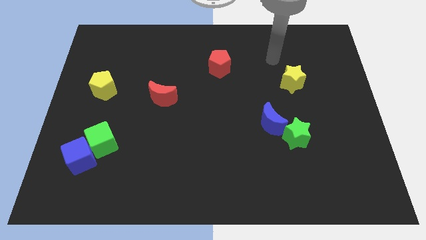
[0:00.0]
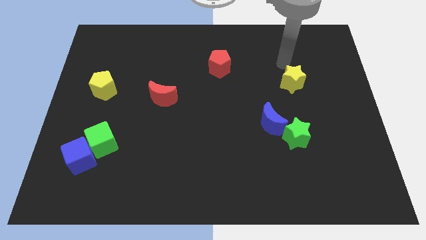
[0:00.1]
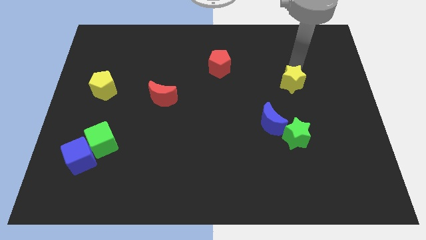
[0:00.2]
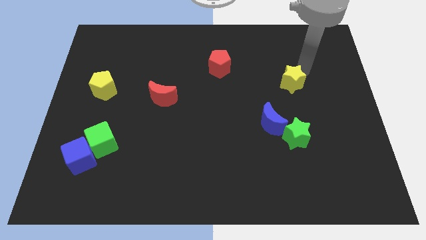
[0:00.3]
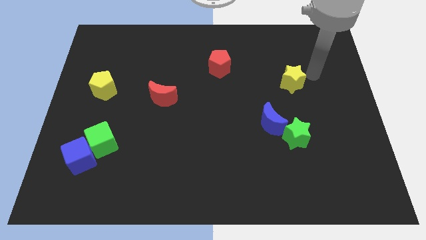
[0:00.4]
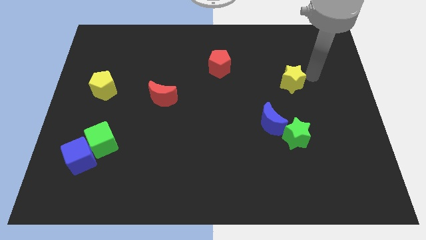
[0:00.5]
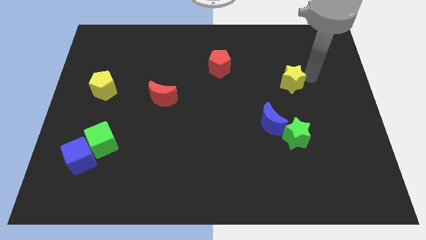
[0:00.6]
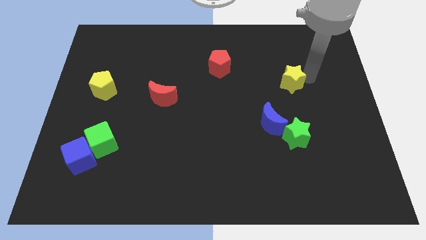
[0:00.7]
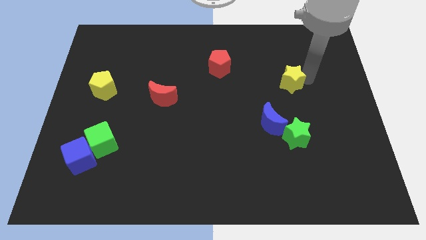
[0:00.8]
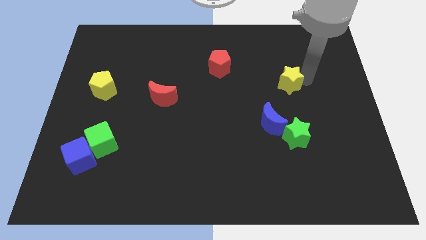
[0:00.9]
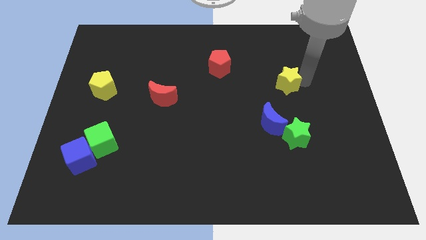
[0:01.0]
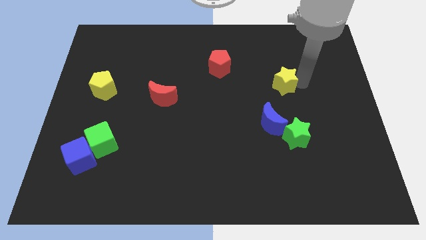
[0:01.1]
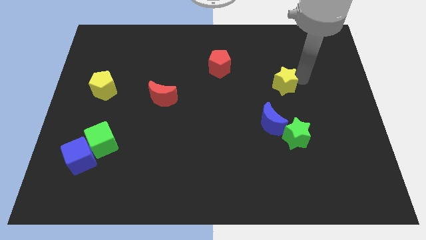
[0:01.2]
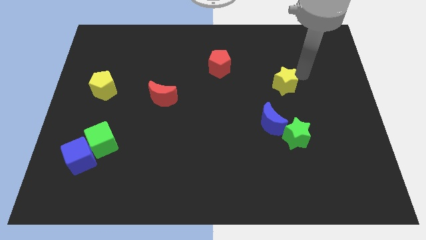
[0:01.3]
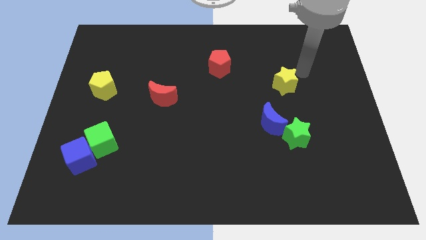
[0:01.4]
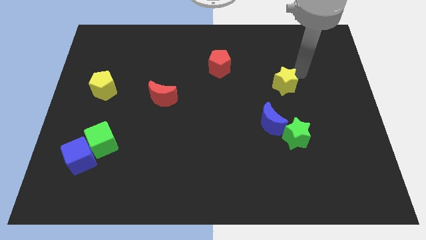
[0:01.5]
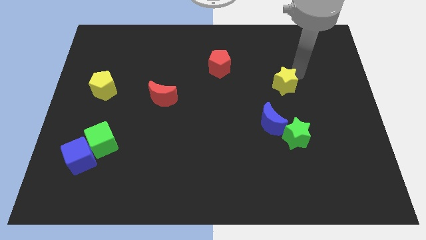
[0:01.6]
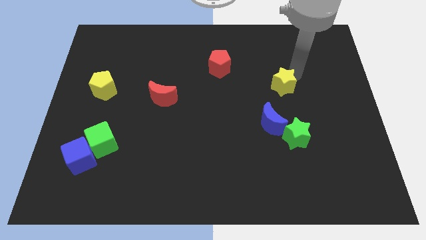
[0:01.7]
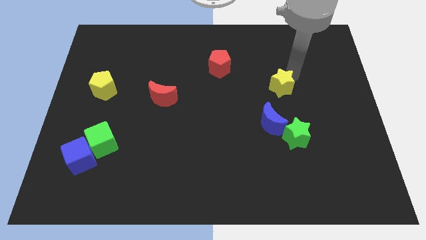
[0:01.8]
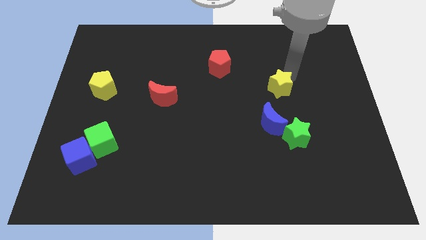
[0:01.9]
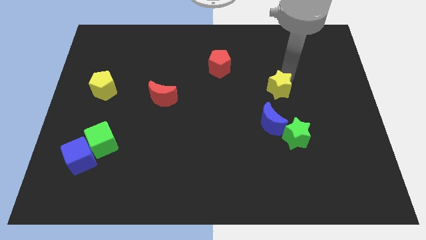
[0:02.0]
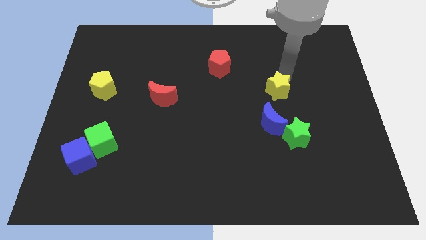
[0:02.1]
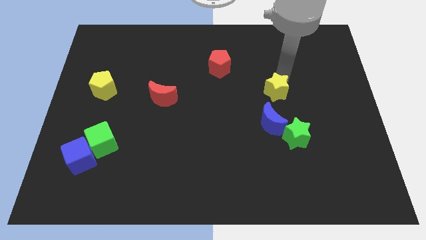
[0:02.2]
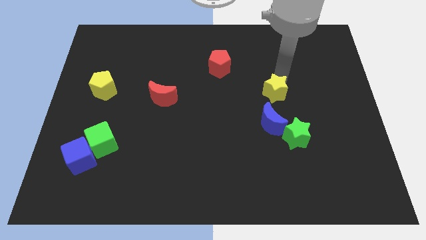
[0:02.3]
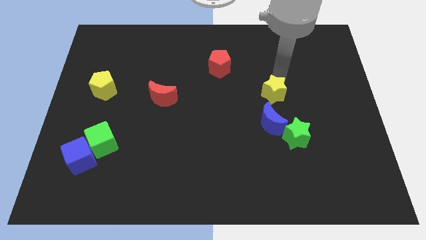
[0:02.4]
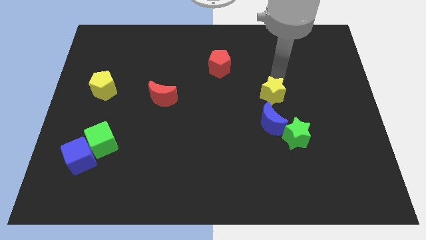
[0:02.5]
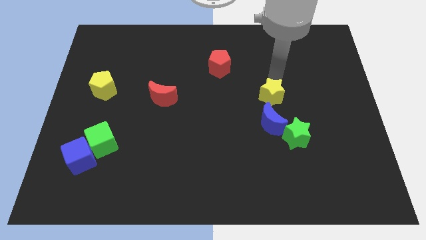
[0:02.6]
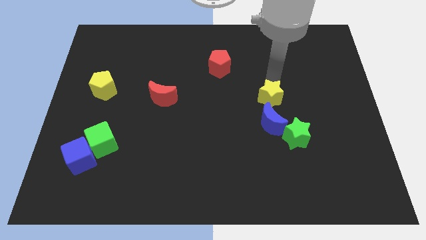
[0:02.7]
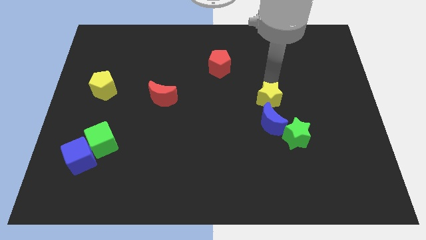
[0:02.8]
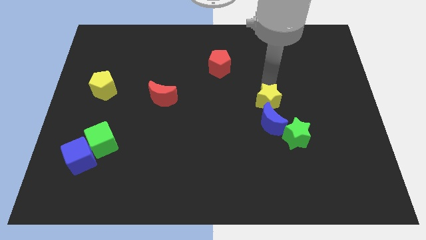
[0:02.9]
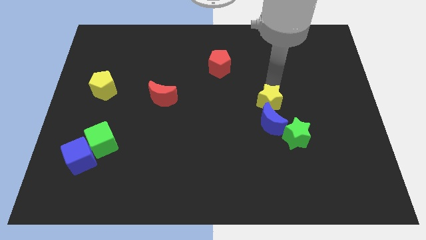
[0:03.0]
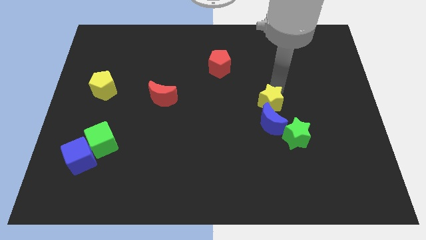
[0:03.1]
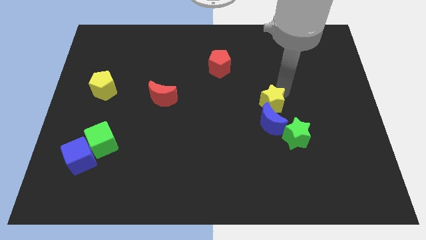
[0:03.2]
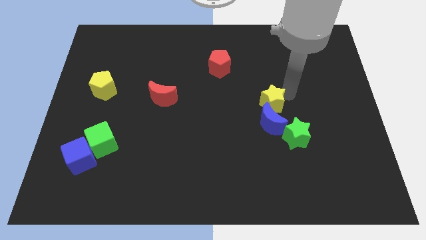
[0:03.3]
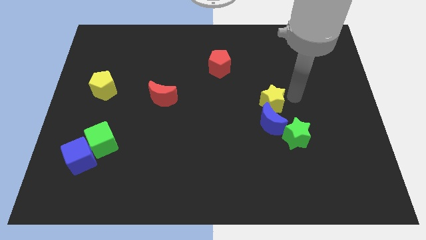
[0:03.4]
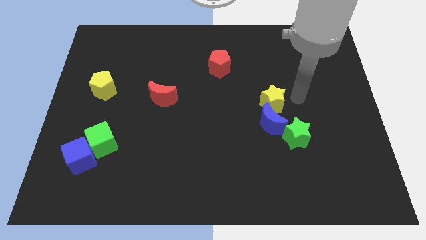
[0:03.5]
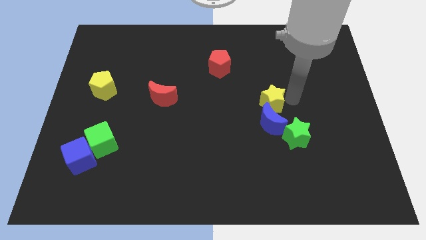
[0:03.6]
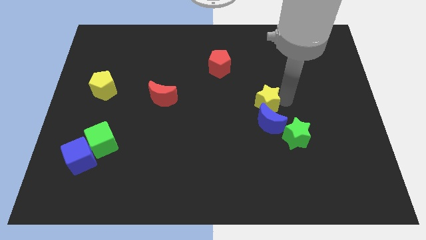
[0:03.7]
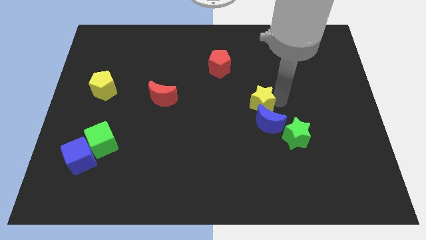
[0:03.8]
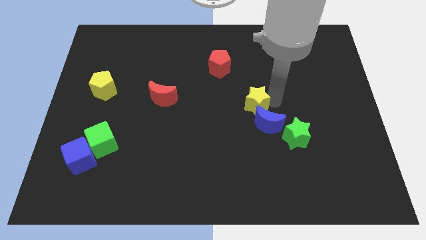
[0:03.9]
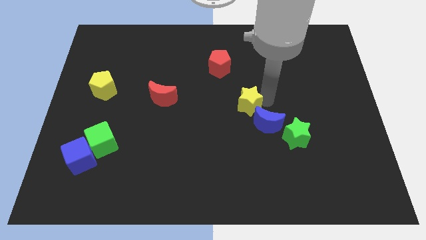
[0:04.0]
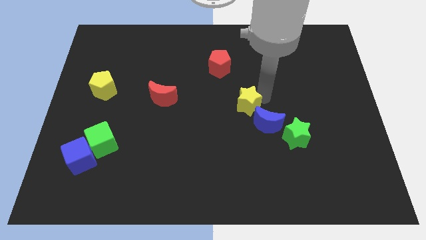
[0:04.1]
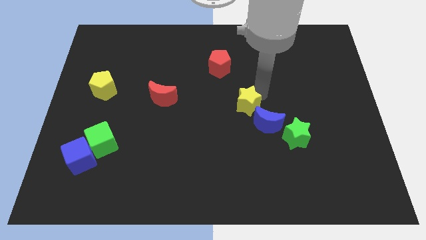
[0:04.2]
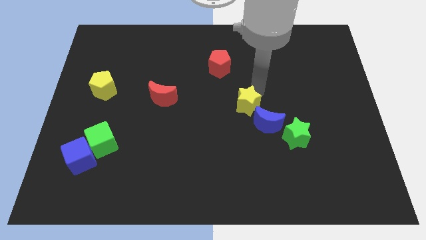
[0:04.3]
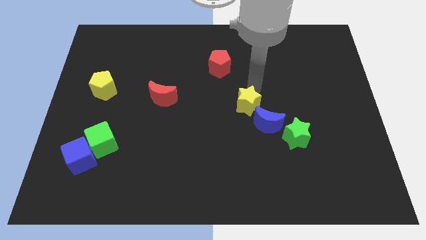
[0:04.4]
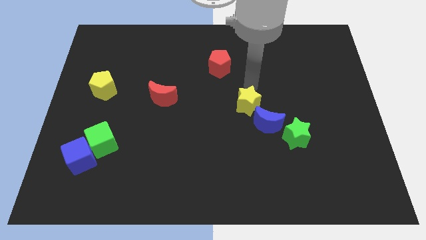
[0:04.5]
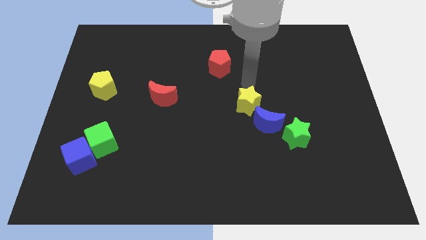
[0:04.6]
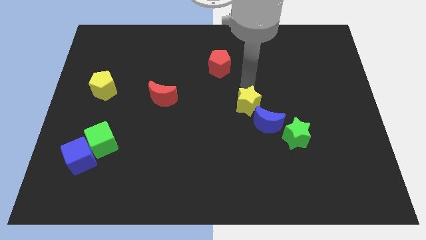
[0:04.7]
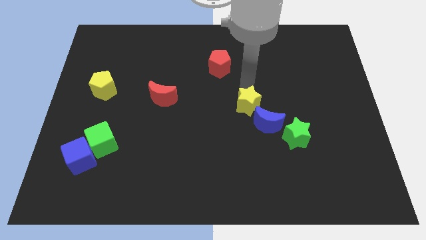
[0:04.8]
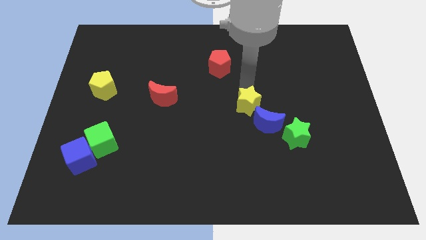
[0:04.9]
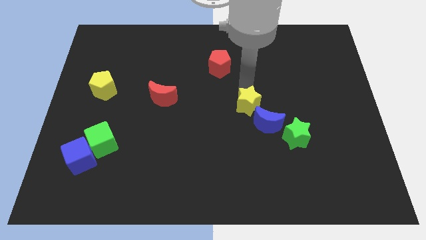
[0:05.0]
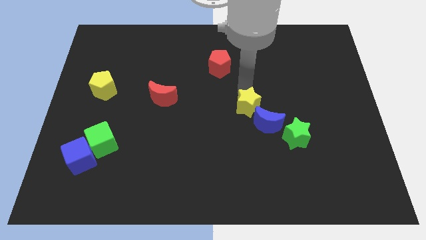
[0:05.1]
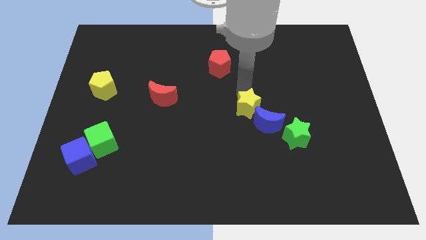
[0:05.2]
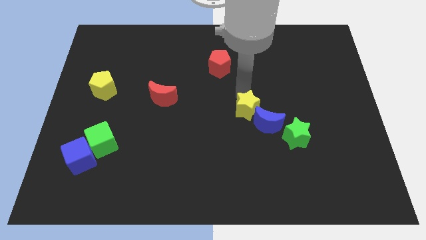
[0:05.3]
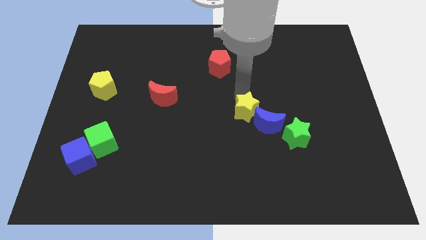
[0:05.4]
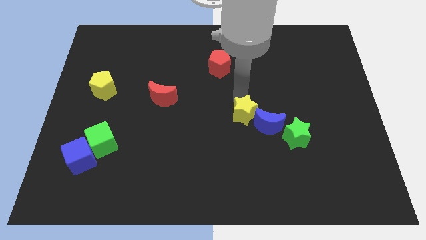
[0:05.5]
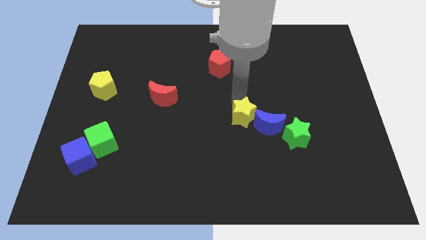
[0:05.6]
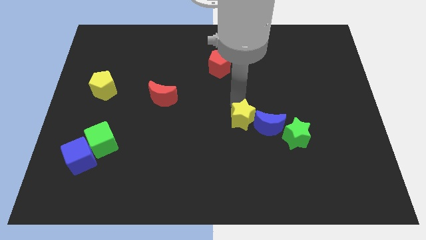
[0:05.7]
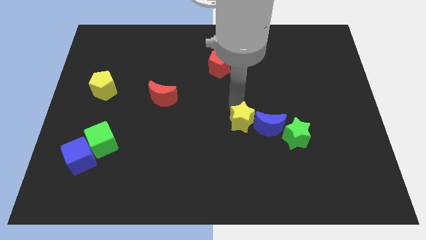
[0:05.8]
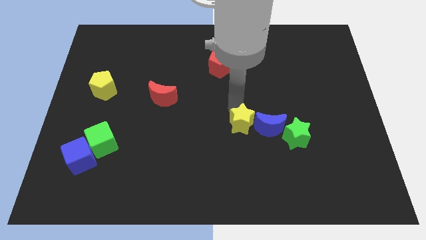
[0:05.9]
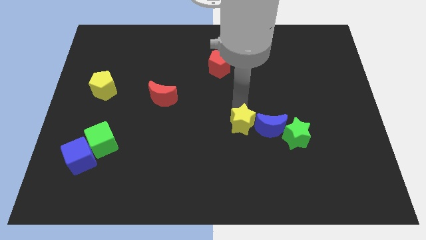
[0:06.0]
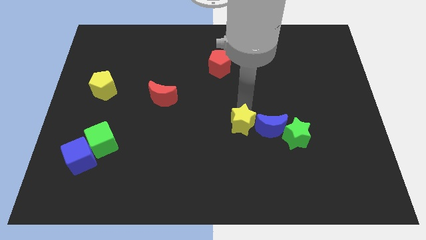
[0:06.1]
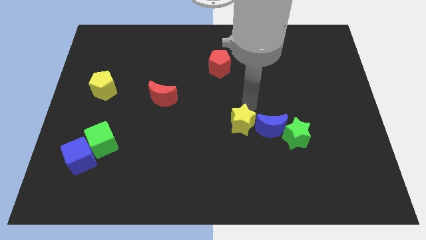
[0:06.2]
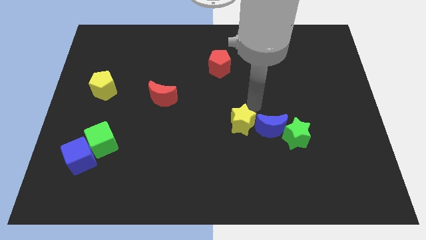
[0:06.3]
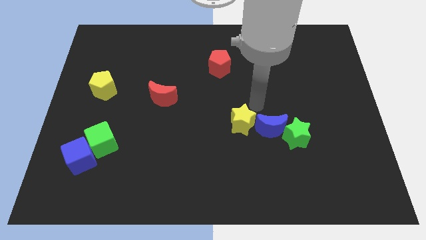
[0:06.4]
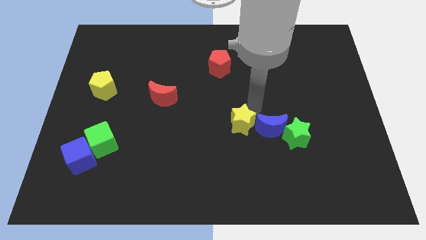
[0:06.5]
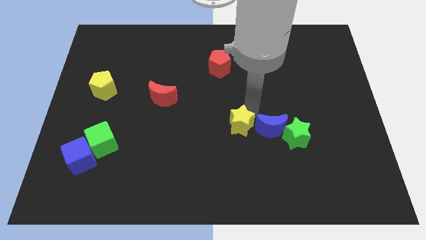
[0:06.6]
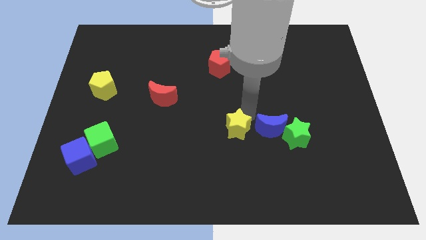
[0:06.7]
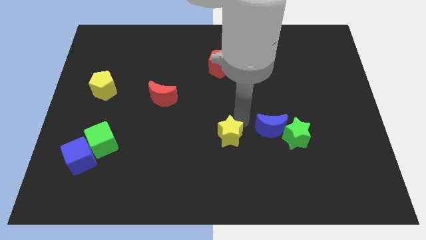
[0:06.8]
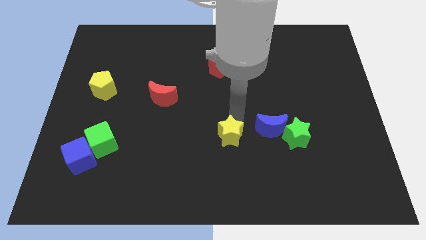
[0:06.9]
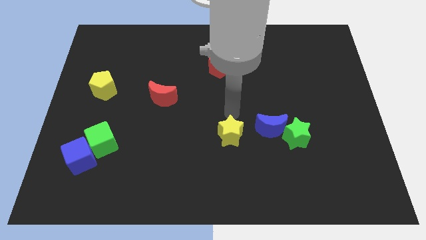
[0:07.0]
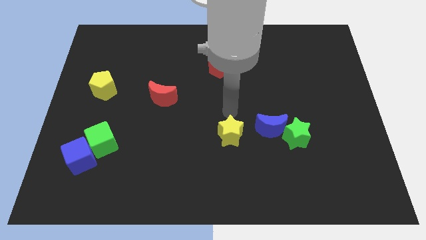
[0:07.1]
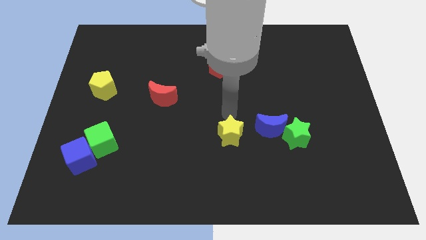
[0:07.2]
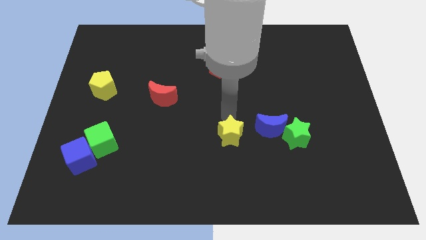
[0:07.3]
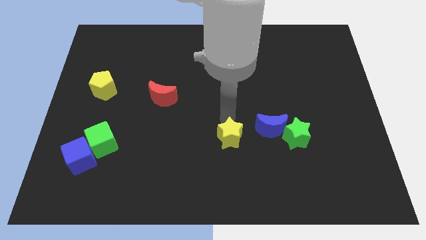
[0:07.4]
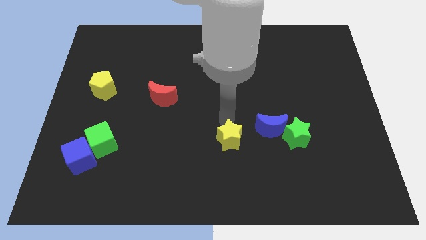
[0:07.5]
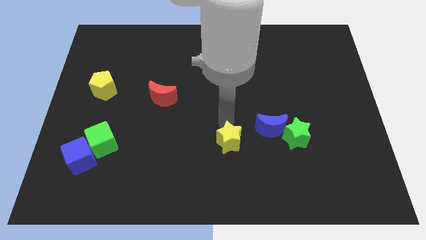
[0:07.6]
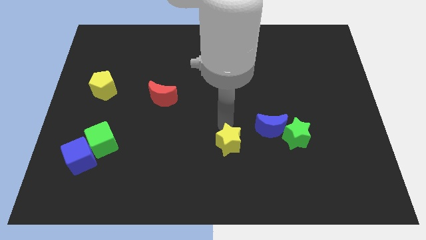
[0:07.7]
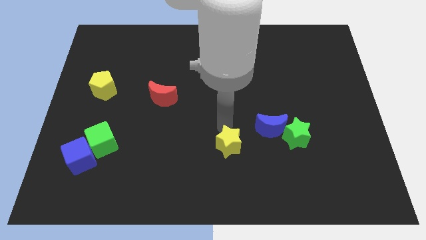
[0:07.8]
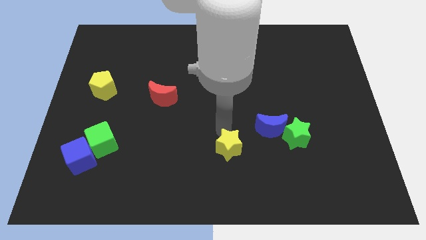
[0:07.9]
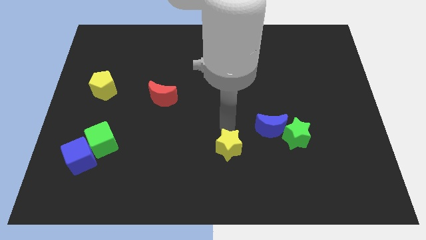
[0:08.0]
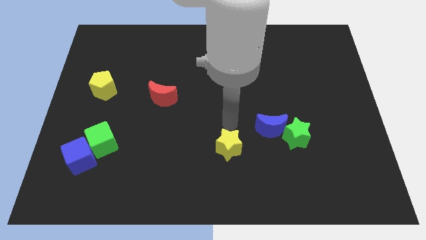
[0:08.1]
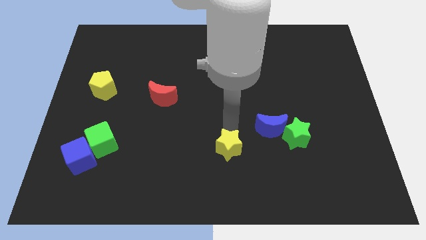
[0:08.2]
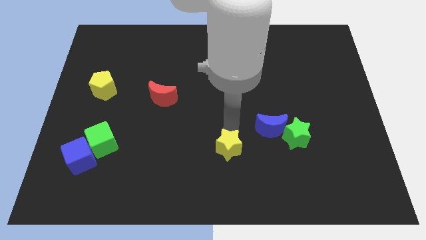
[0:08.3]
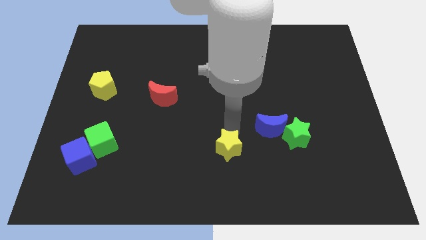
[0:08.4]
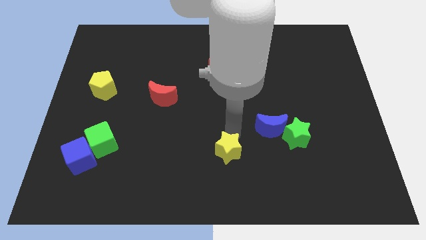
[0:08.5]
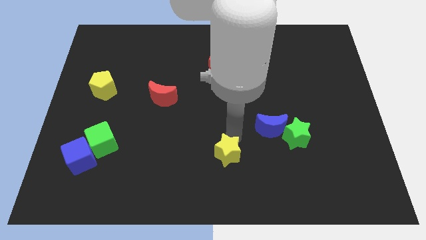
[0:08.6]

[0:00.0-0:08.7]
push the yellow star to the bottom
